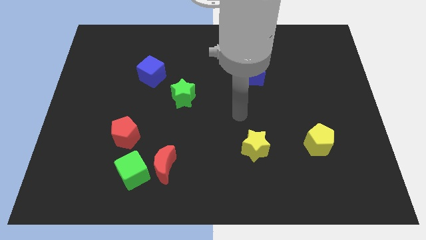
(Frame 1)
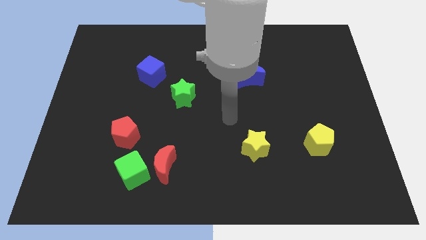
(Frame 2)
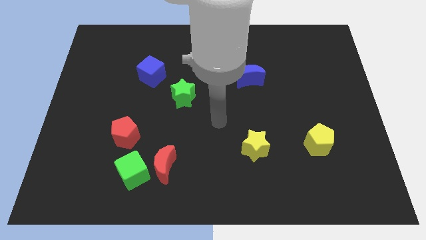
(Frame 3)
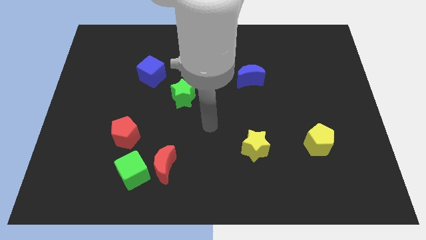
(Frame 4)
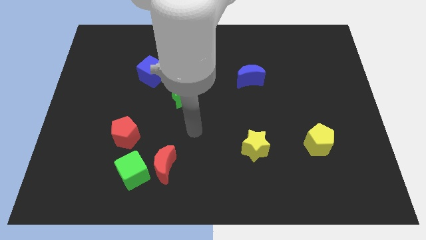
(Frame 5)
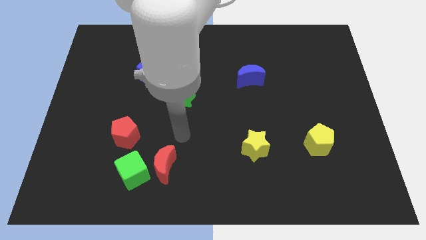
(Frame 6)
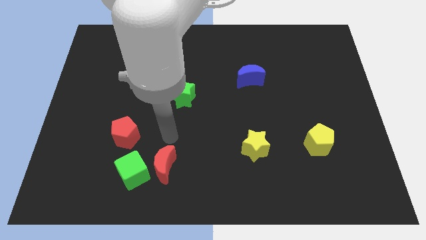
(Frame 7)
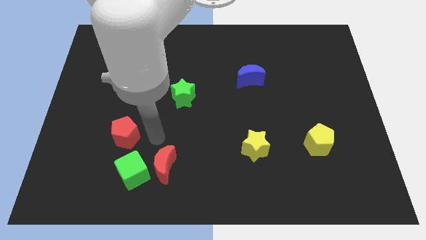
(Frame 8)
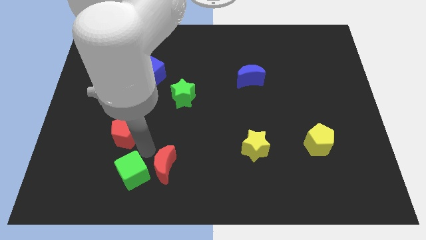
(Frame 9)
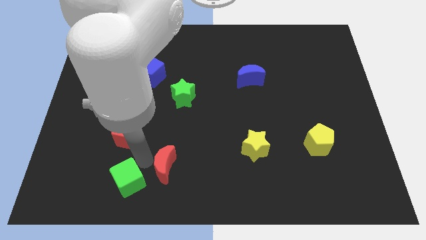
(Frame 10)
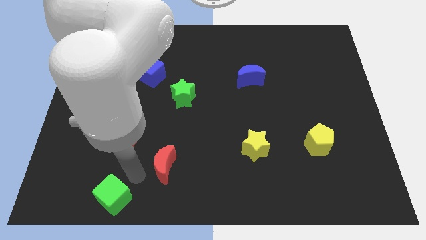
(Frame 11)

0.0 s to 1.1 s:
pull the red moon apart from the green cube

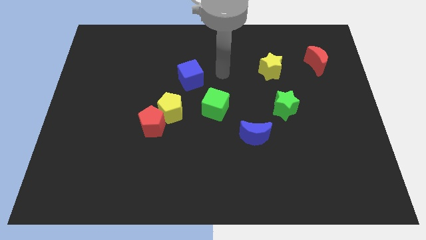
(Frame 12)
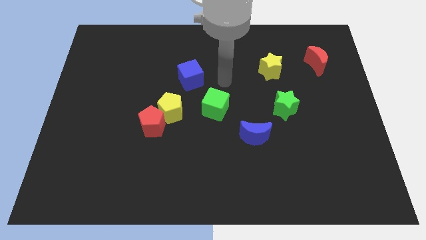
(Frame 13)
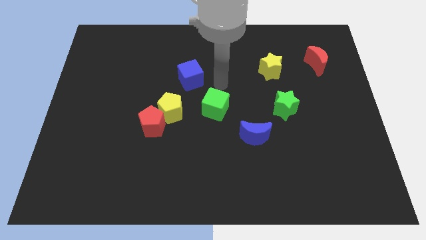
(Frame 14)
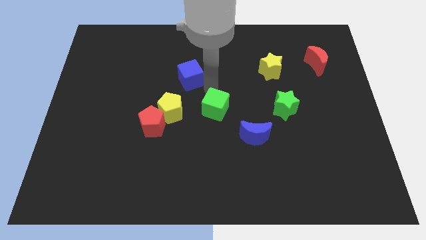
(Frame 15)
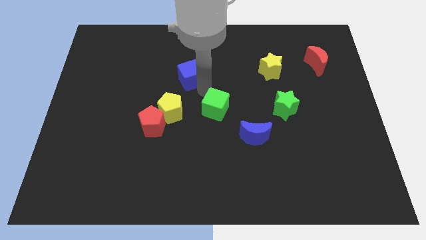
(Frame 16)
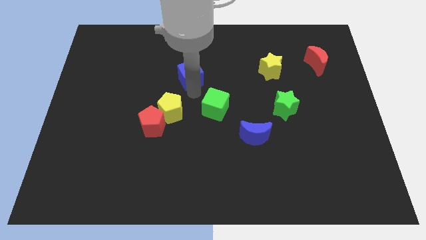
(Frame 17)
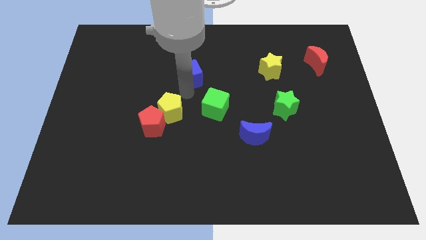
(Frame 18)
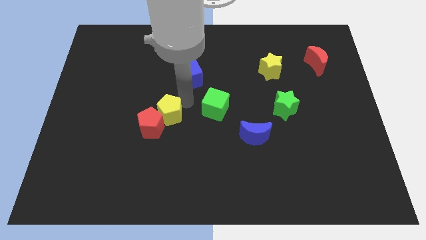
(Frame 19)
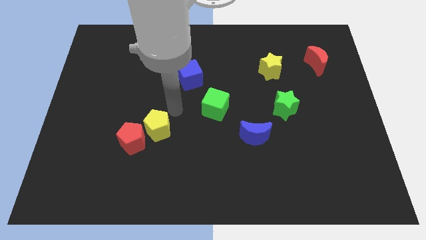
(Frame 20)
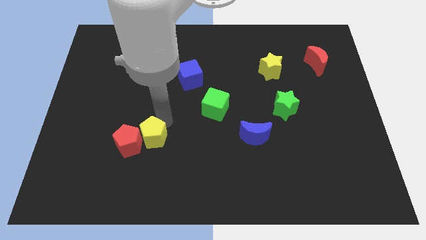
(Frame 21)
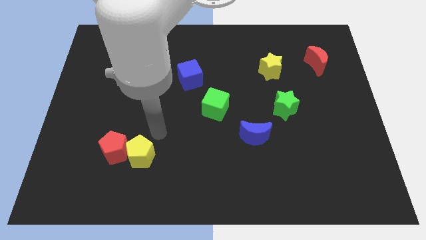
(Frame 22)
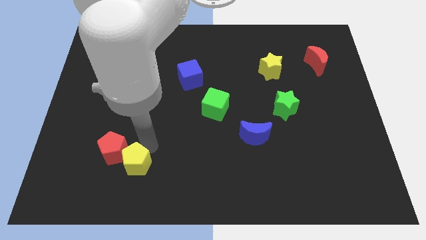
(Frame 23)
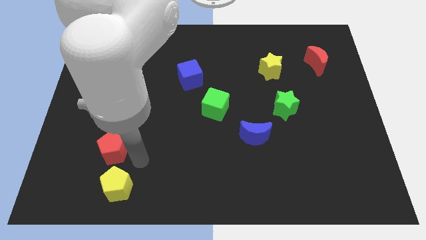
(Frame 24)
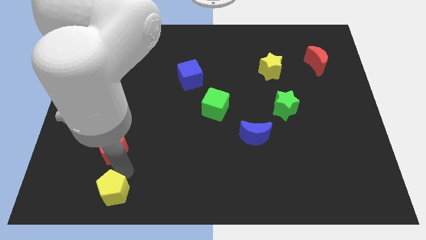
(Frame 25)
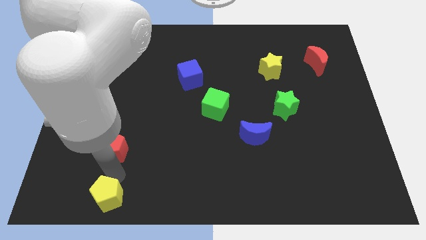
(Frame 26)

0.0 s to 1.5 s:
move the red pentagon away from the yellow pentagon

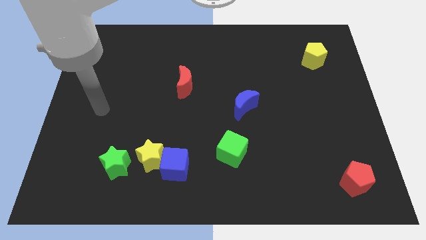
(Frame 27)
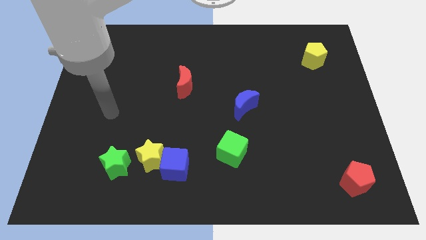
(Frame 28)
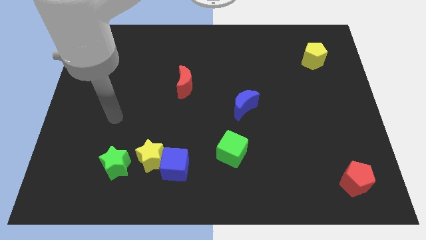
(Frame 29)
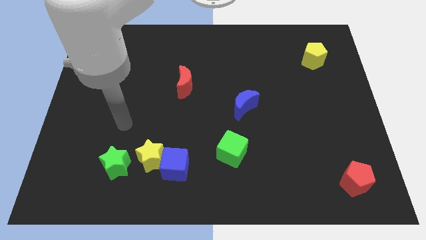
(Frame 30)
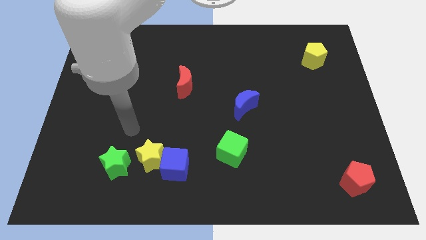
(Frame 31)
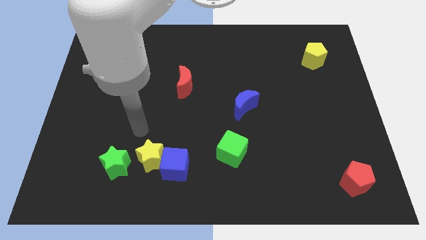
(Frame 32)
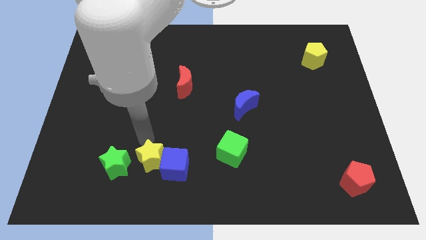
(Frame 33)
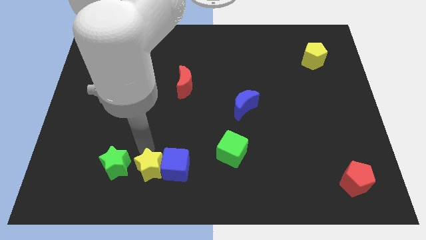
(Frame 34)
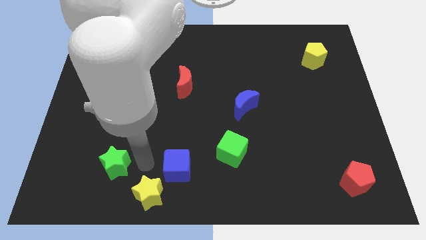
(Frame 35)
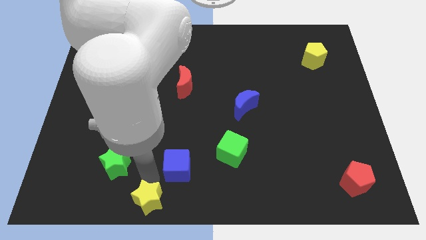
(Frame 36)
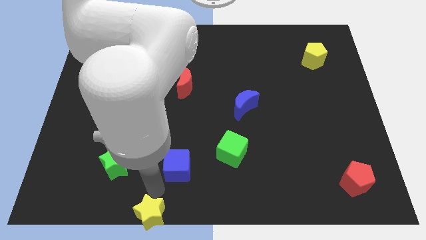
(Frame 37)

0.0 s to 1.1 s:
move the blue cube away from the yellow star

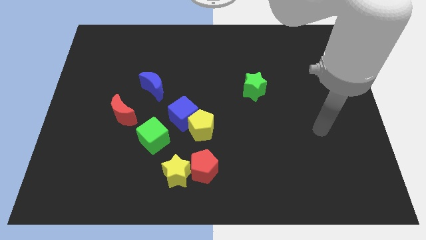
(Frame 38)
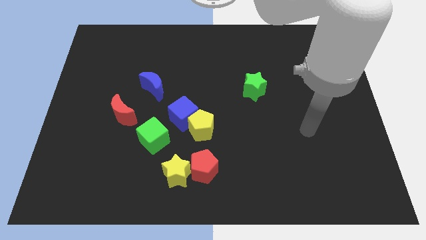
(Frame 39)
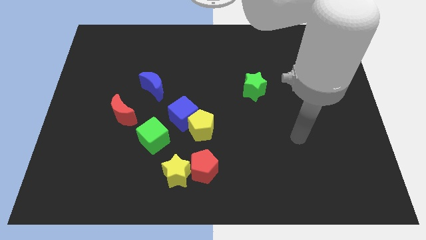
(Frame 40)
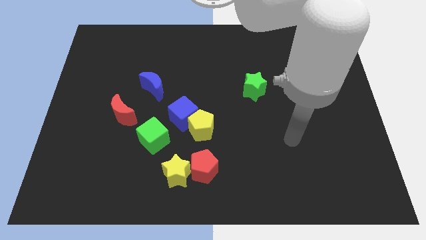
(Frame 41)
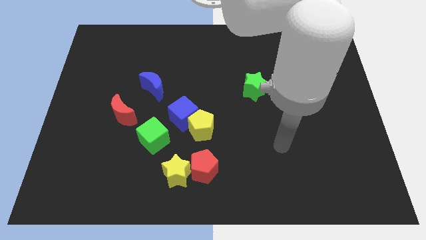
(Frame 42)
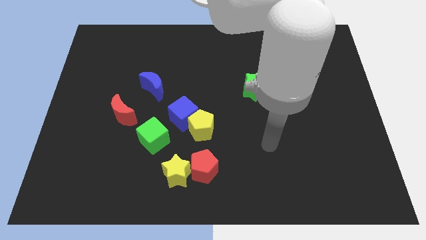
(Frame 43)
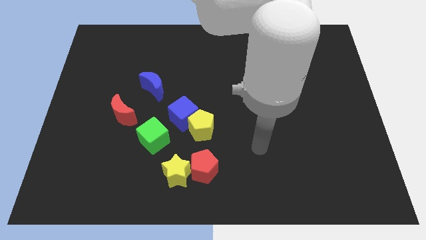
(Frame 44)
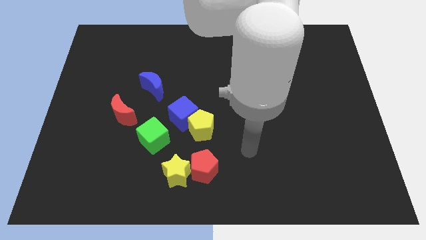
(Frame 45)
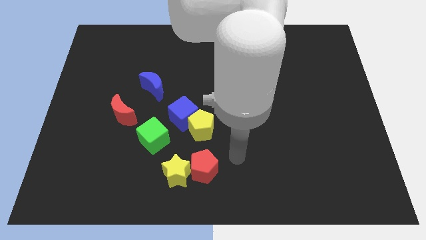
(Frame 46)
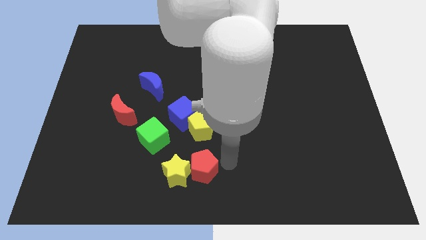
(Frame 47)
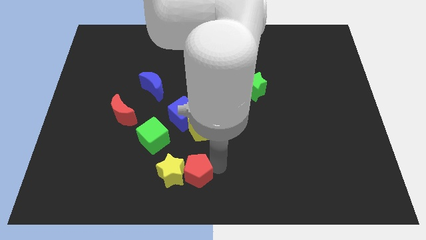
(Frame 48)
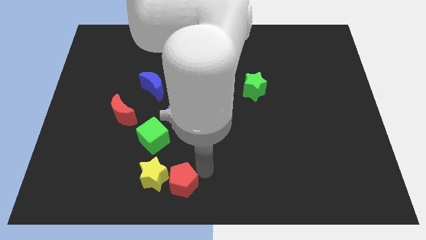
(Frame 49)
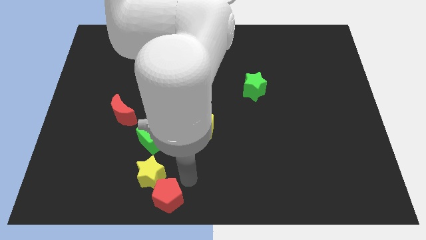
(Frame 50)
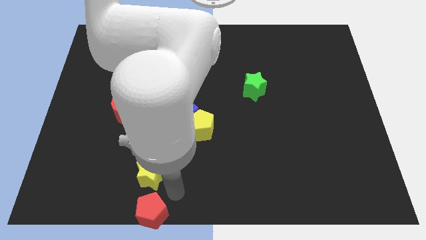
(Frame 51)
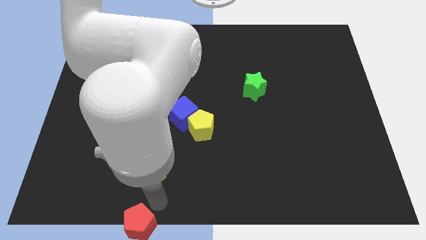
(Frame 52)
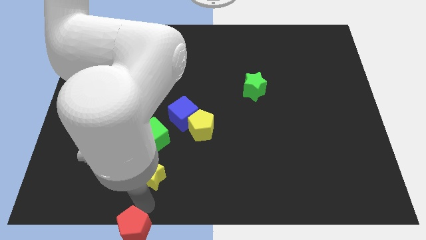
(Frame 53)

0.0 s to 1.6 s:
separate the yellow star from the red pentagon

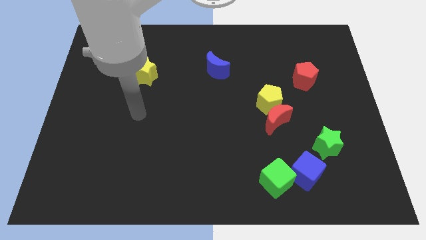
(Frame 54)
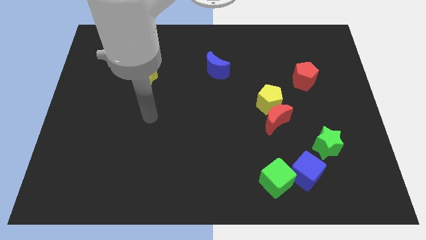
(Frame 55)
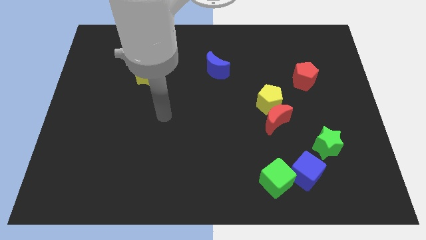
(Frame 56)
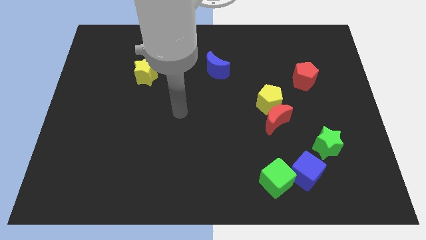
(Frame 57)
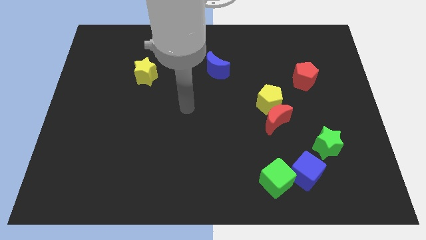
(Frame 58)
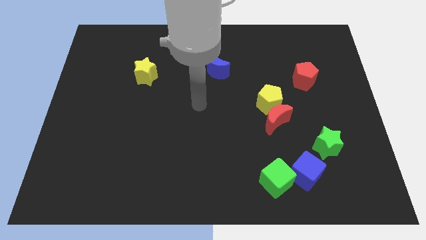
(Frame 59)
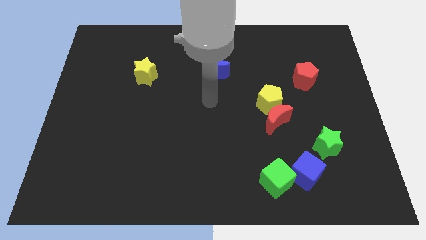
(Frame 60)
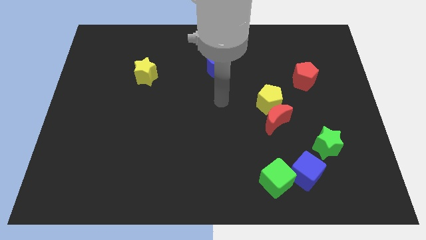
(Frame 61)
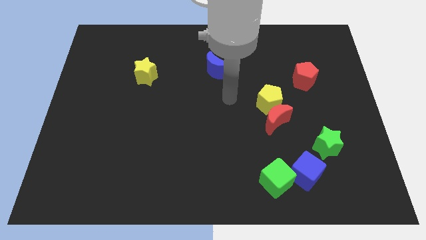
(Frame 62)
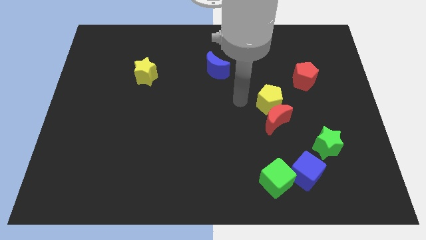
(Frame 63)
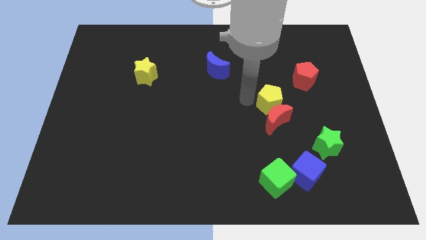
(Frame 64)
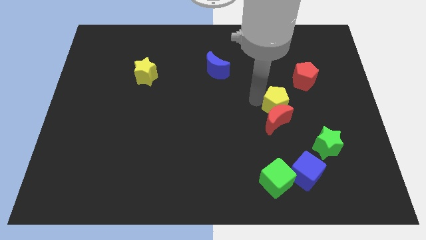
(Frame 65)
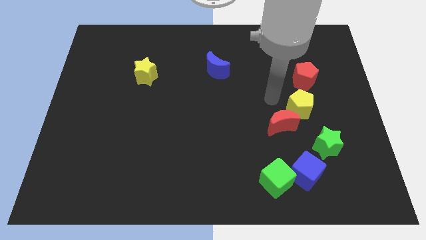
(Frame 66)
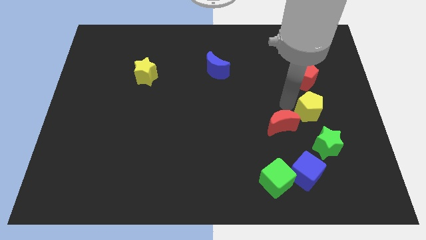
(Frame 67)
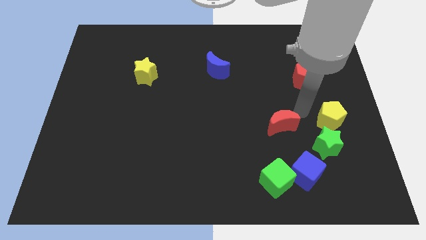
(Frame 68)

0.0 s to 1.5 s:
pull the red moon apart from the yellow pentagon

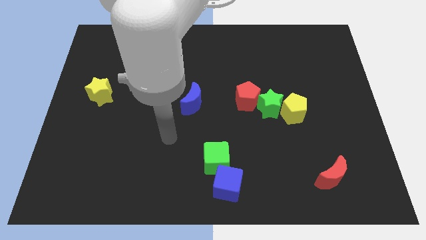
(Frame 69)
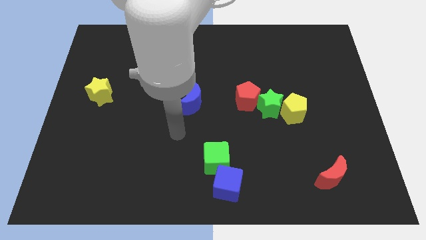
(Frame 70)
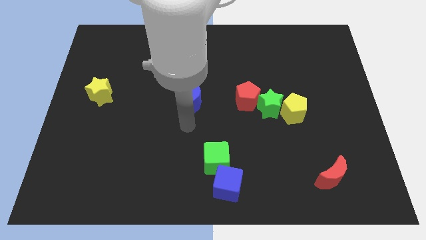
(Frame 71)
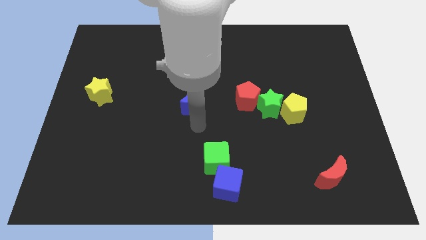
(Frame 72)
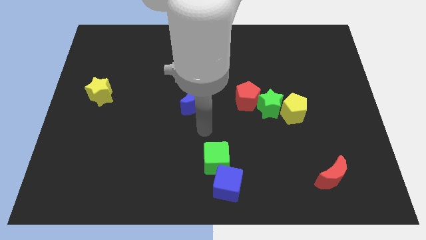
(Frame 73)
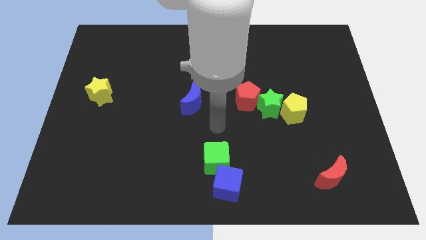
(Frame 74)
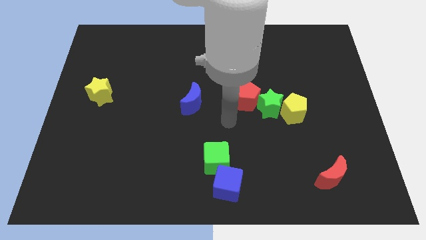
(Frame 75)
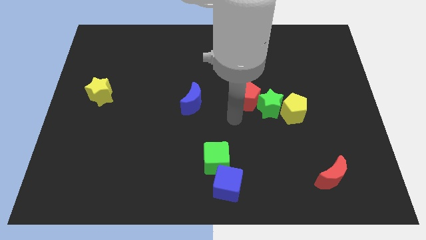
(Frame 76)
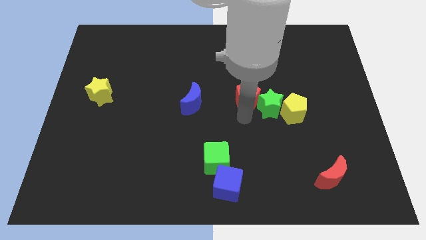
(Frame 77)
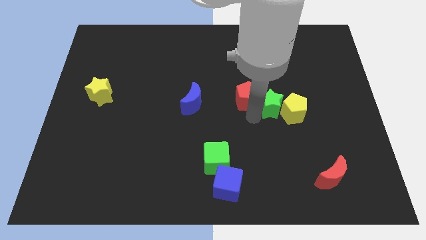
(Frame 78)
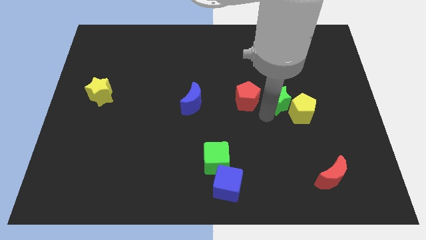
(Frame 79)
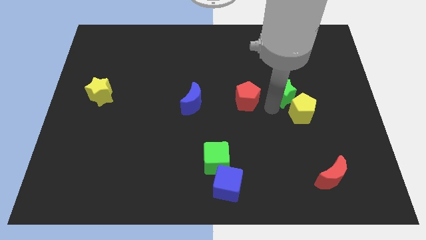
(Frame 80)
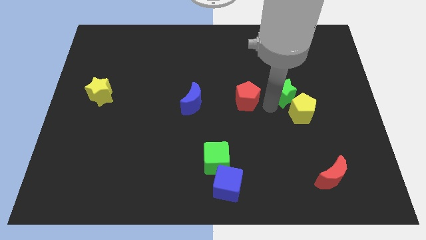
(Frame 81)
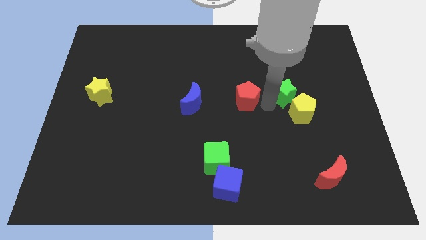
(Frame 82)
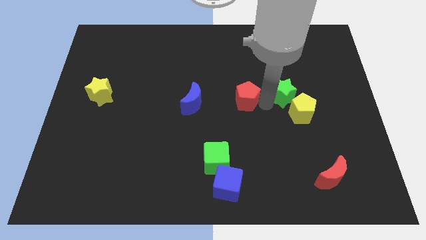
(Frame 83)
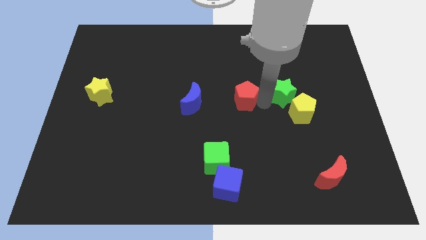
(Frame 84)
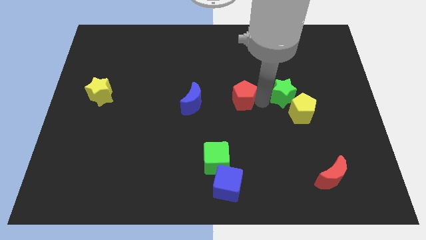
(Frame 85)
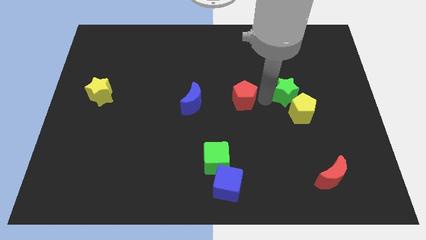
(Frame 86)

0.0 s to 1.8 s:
move the red pentagon away from the green star

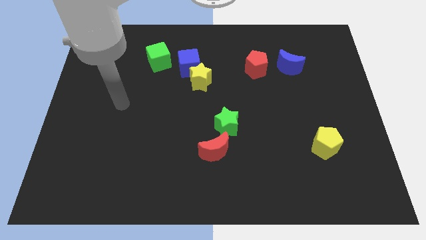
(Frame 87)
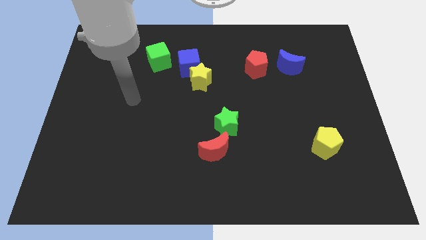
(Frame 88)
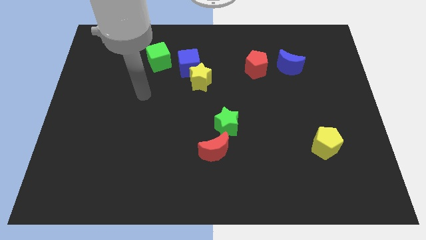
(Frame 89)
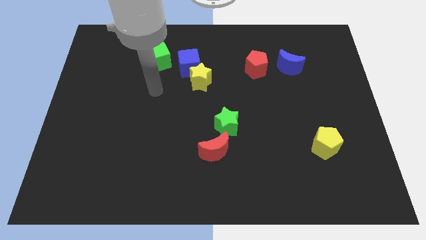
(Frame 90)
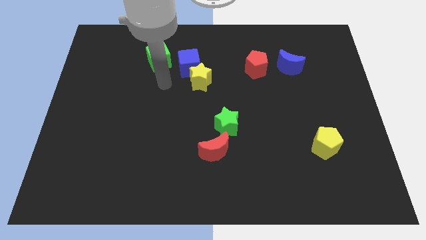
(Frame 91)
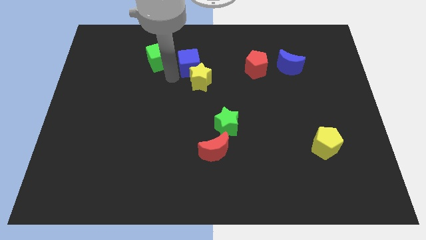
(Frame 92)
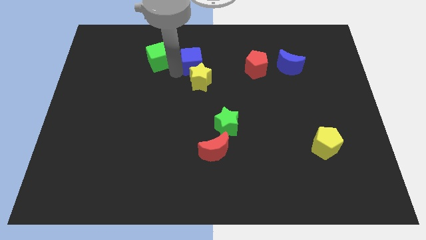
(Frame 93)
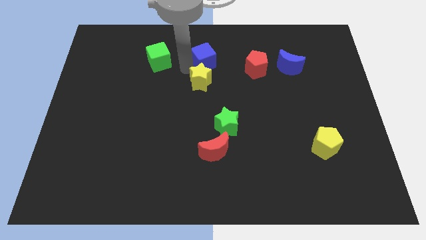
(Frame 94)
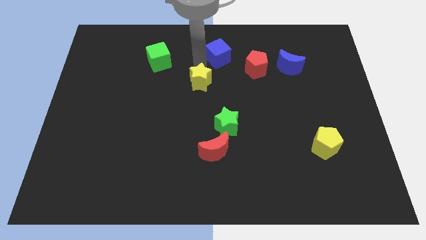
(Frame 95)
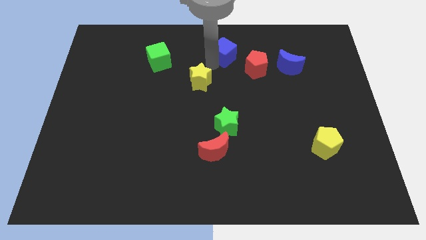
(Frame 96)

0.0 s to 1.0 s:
pull the yellow star apart from the blue cube
